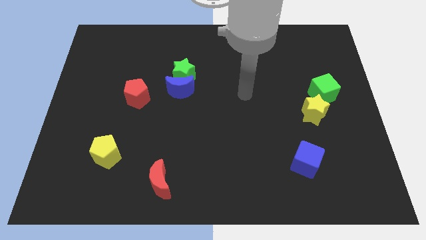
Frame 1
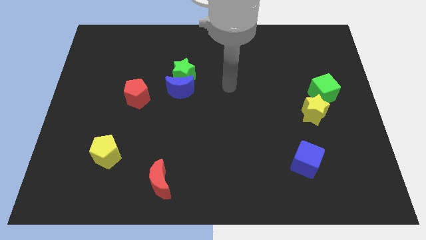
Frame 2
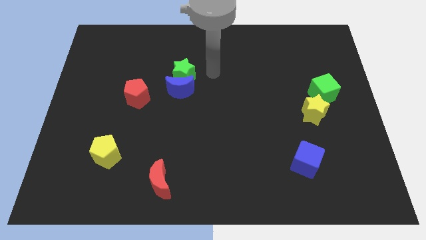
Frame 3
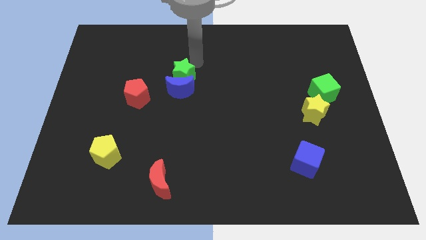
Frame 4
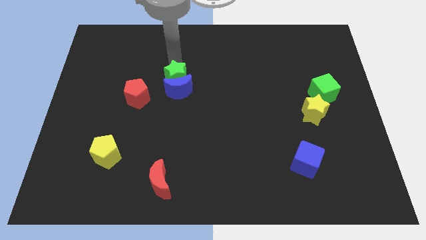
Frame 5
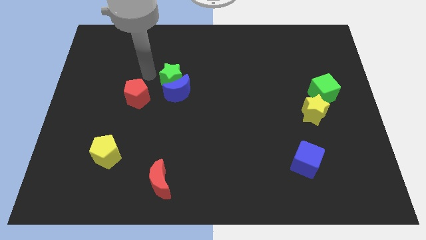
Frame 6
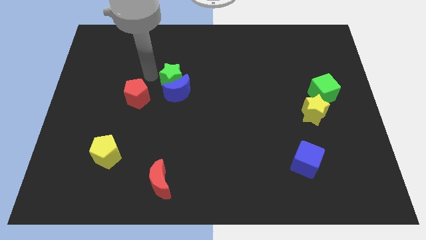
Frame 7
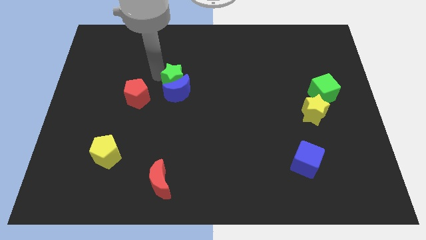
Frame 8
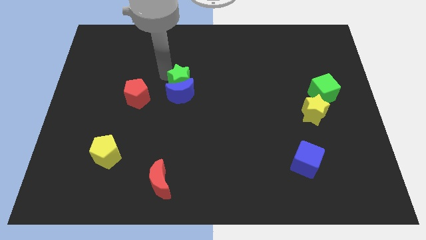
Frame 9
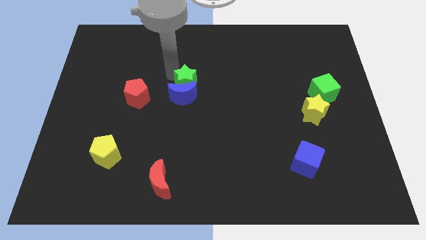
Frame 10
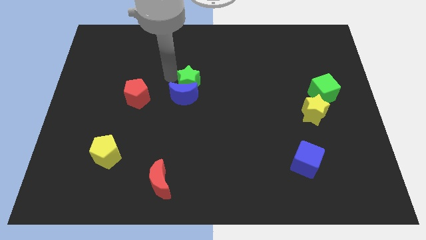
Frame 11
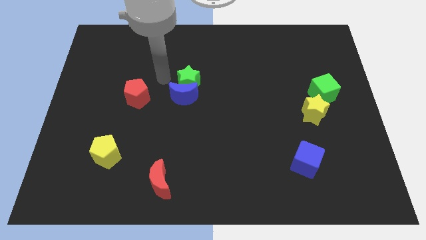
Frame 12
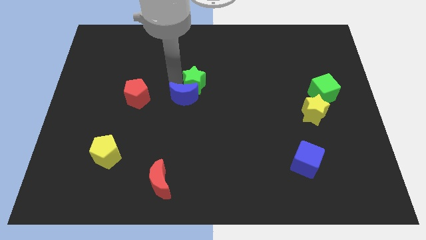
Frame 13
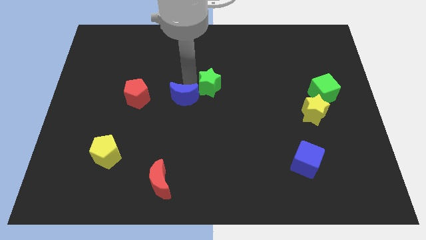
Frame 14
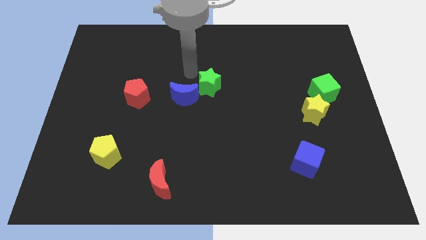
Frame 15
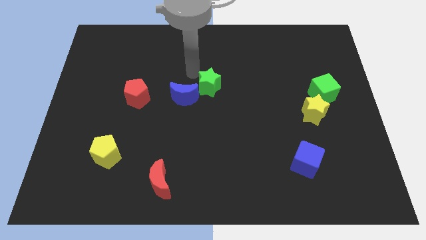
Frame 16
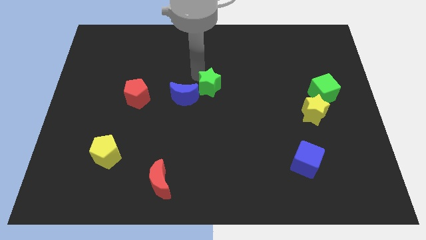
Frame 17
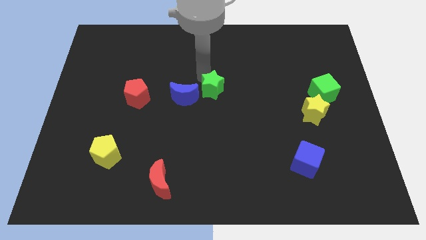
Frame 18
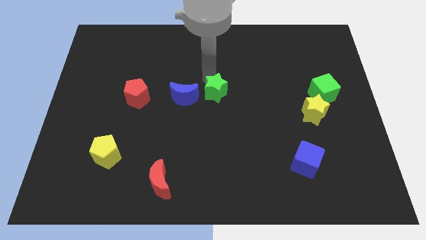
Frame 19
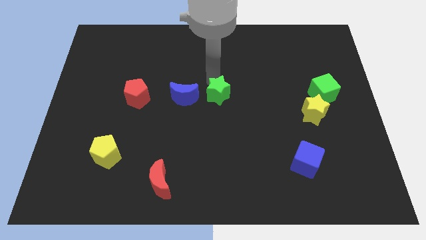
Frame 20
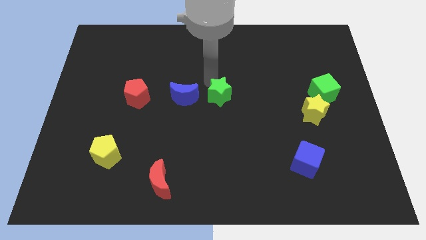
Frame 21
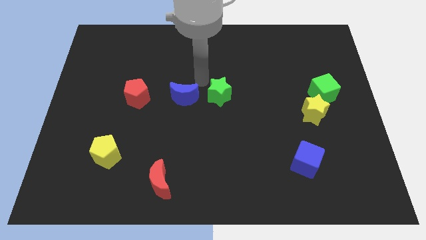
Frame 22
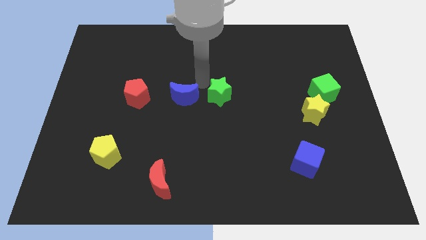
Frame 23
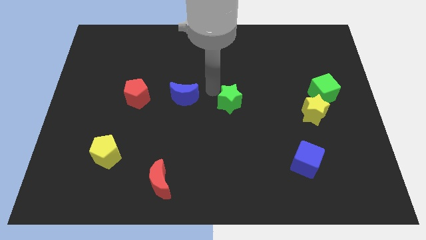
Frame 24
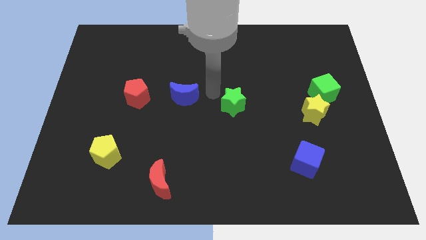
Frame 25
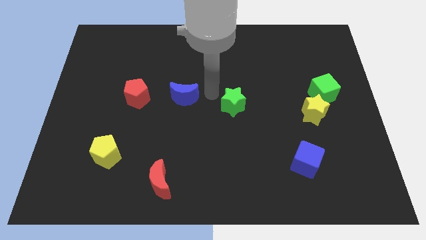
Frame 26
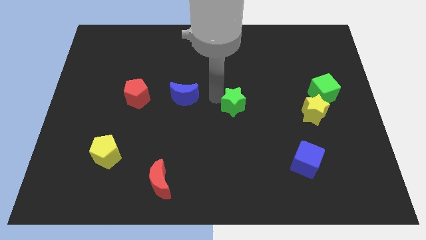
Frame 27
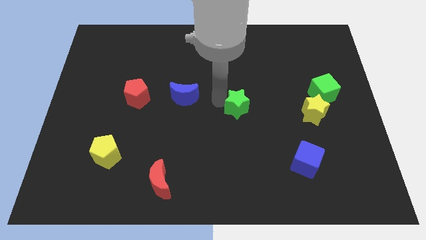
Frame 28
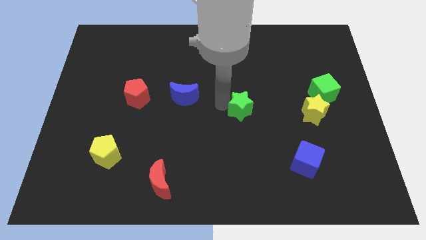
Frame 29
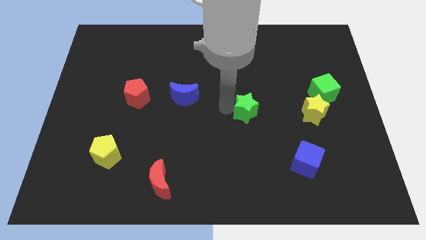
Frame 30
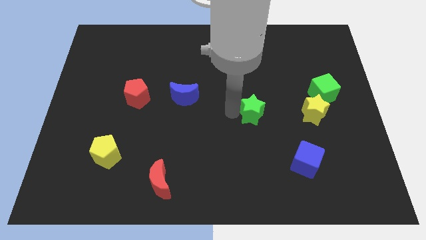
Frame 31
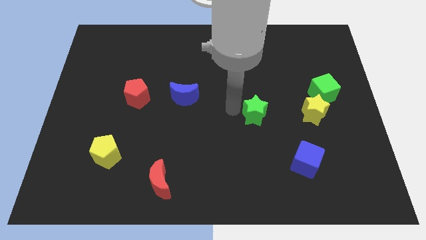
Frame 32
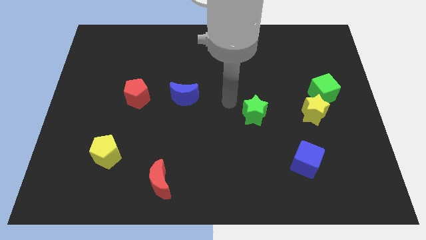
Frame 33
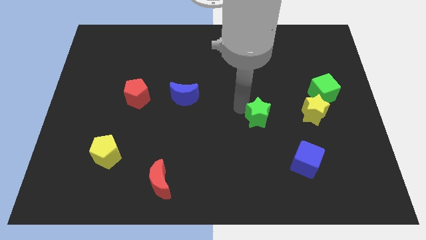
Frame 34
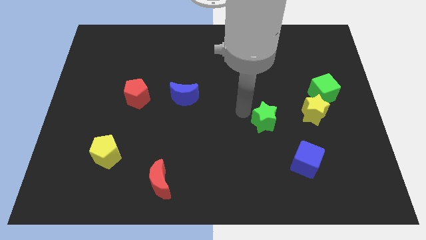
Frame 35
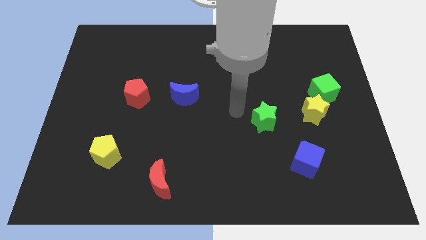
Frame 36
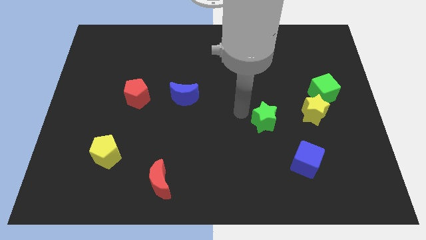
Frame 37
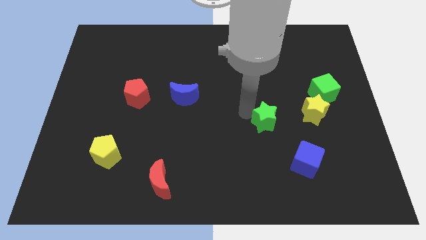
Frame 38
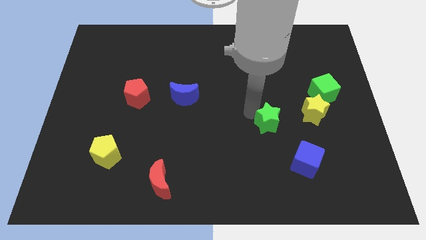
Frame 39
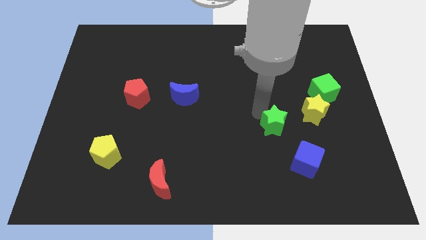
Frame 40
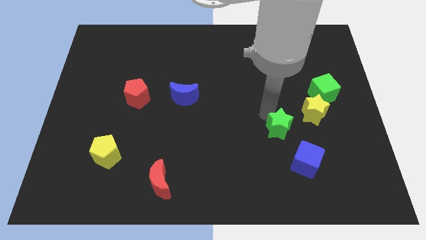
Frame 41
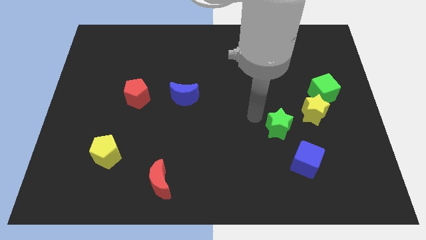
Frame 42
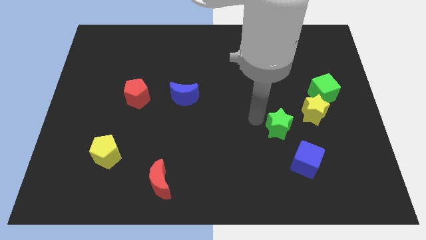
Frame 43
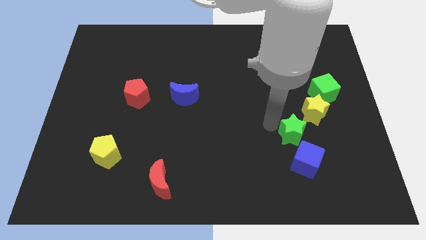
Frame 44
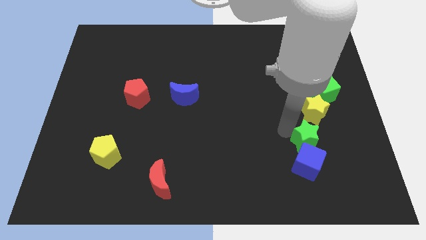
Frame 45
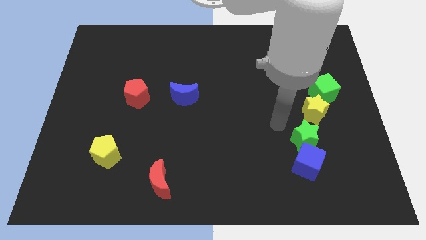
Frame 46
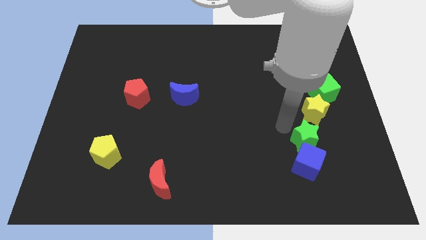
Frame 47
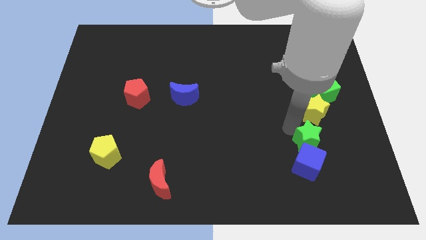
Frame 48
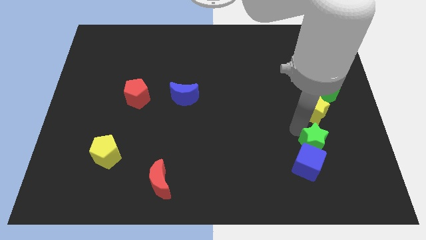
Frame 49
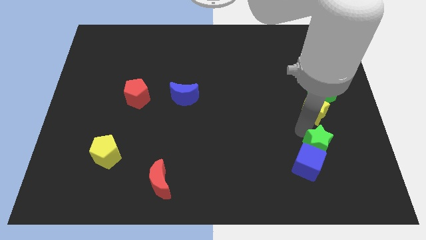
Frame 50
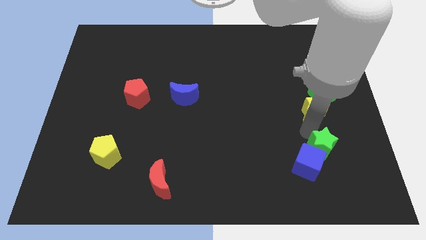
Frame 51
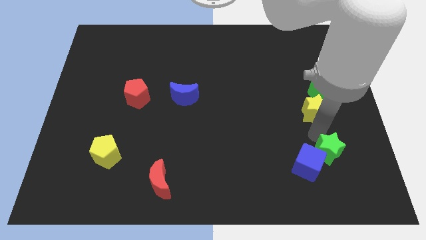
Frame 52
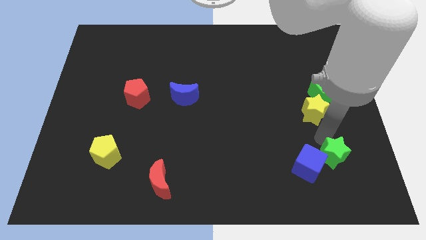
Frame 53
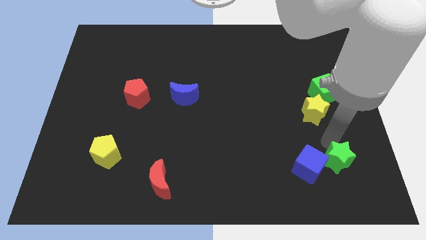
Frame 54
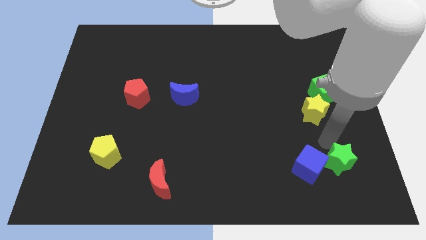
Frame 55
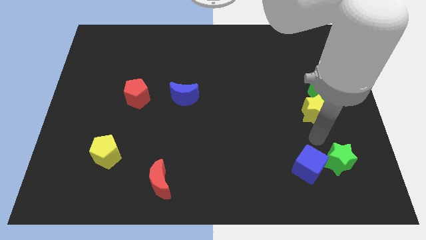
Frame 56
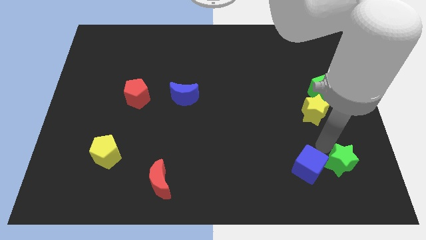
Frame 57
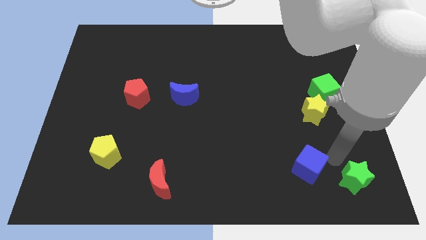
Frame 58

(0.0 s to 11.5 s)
slide the green star to the bottom right corner

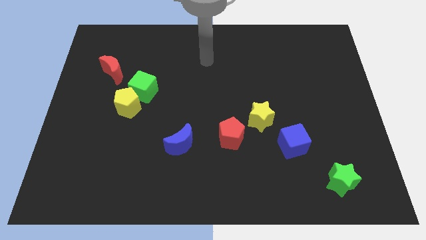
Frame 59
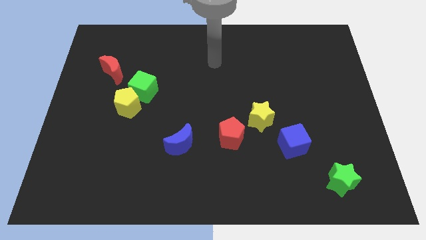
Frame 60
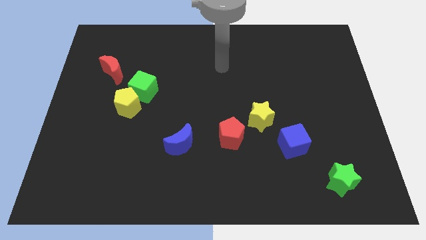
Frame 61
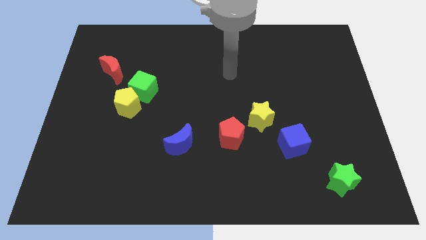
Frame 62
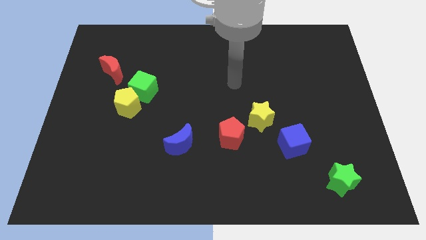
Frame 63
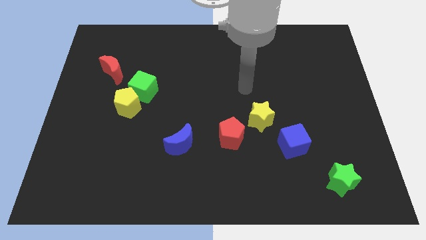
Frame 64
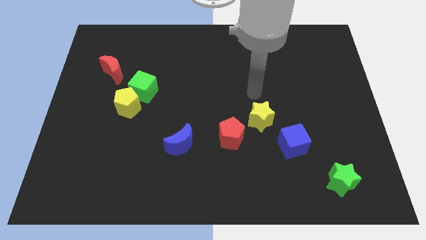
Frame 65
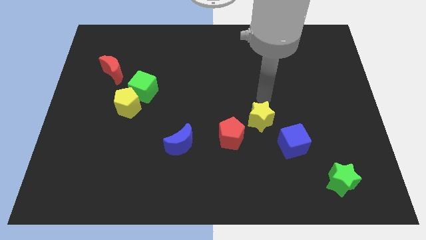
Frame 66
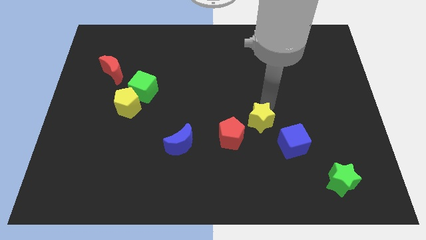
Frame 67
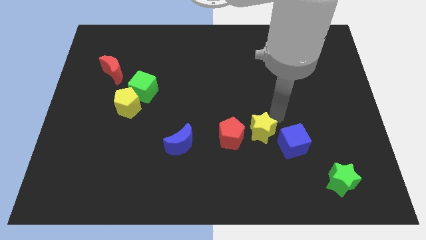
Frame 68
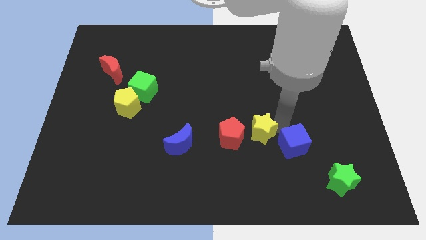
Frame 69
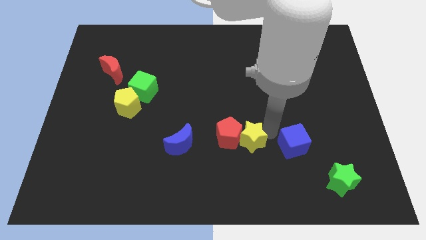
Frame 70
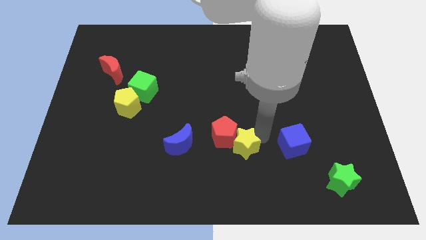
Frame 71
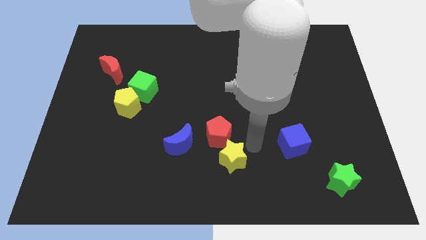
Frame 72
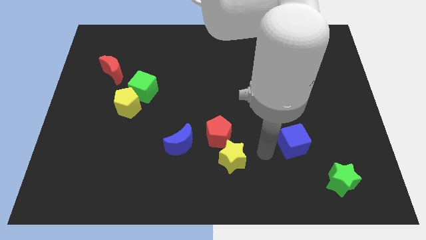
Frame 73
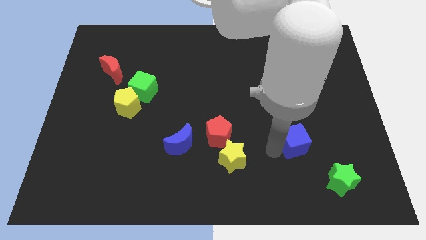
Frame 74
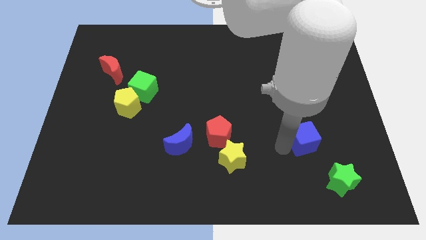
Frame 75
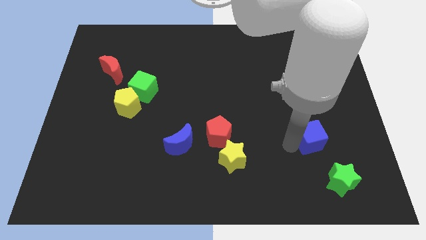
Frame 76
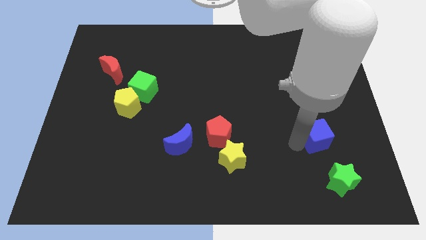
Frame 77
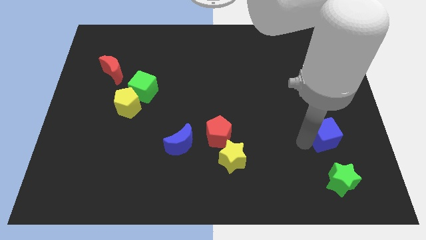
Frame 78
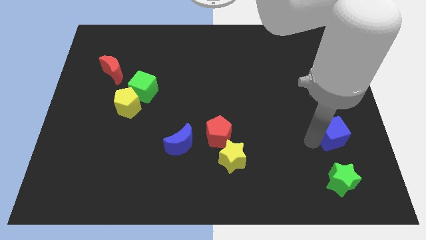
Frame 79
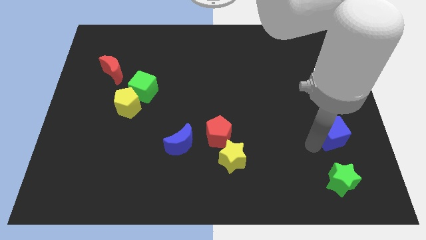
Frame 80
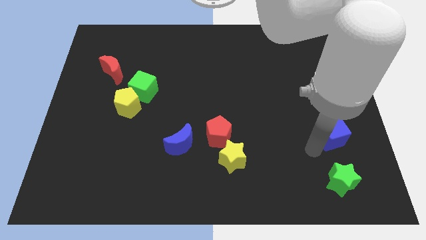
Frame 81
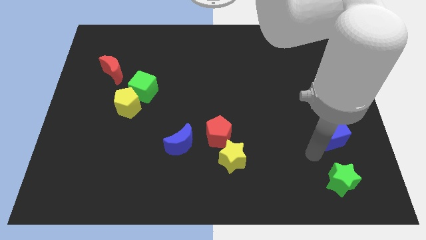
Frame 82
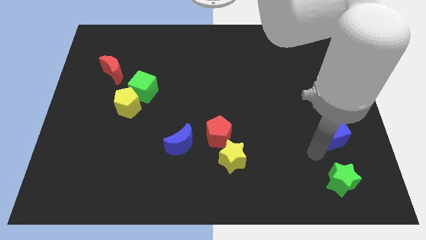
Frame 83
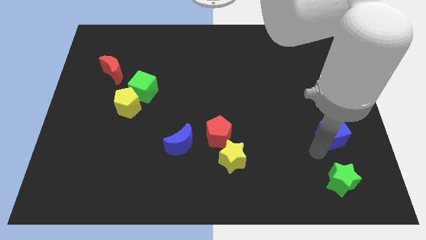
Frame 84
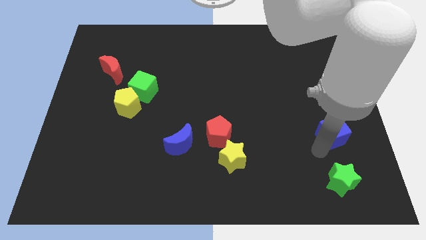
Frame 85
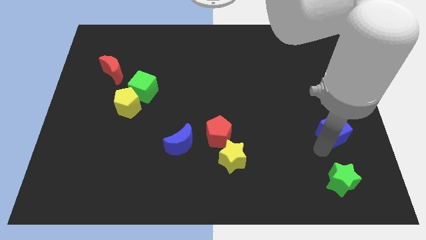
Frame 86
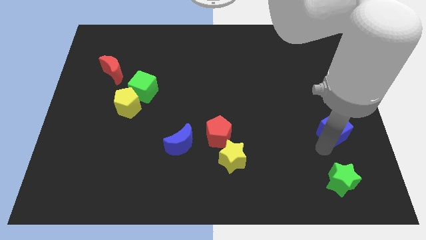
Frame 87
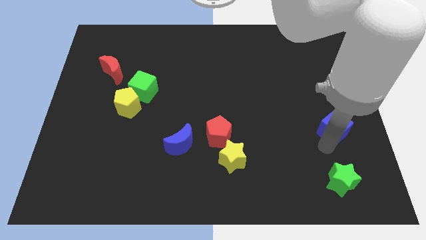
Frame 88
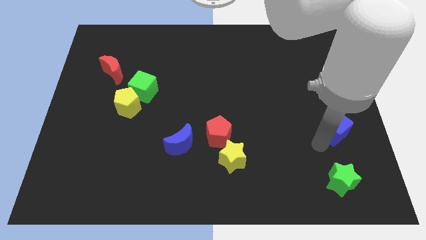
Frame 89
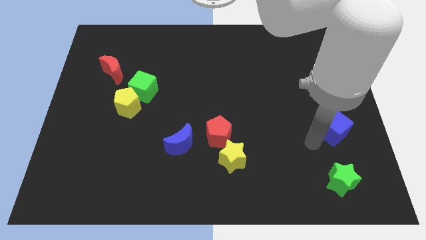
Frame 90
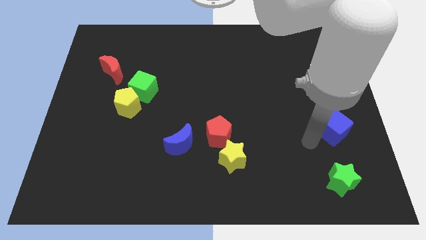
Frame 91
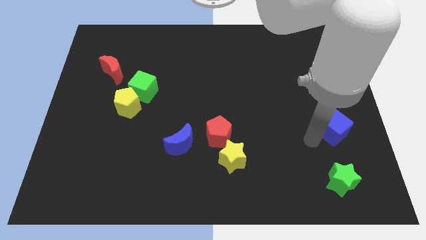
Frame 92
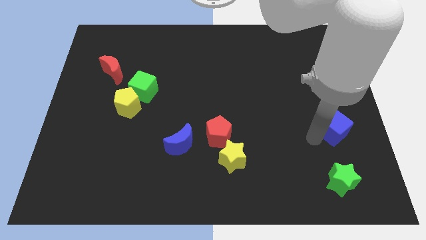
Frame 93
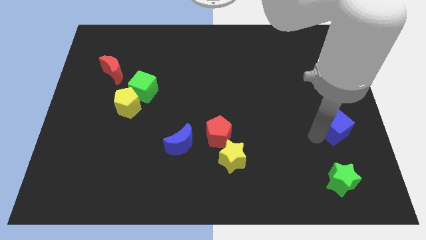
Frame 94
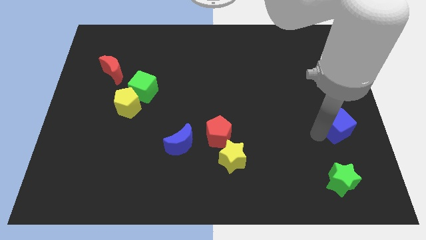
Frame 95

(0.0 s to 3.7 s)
push the blue cube to the right side
